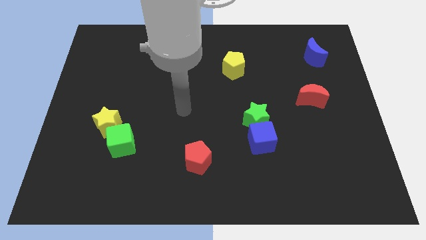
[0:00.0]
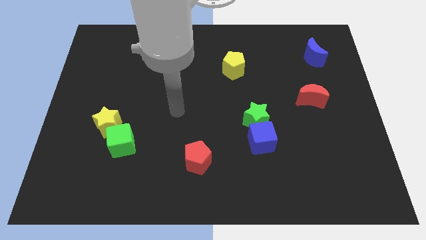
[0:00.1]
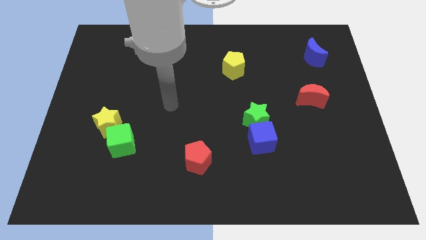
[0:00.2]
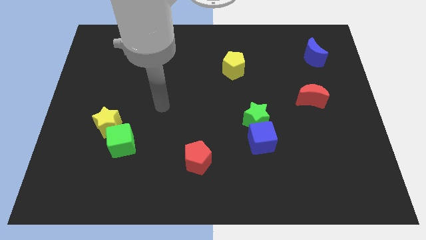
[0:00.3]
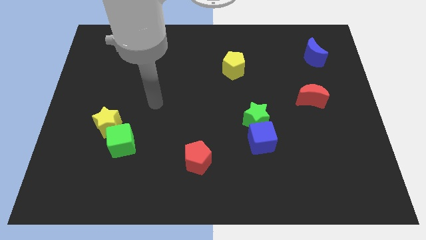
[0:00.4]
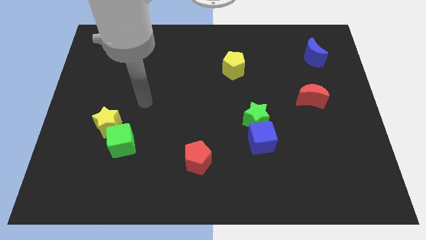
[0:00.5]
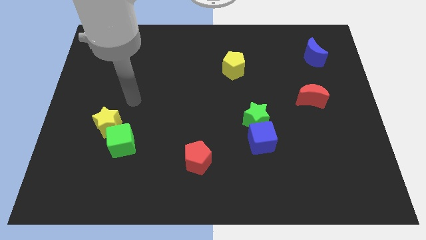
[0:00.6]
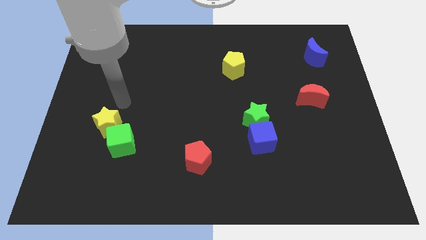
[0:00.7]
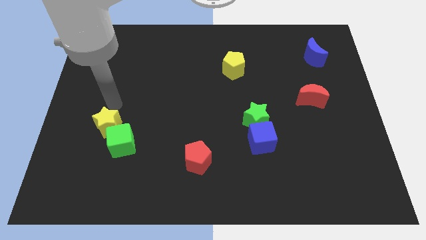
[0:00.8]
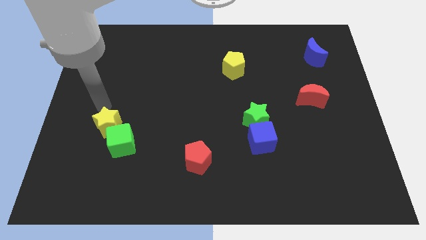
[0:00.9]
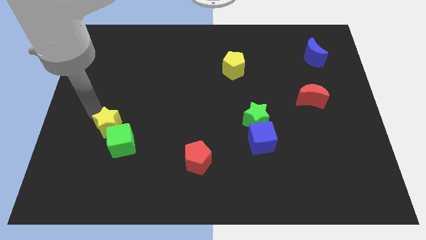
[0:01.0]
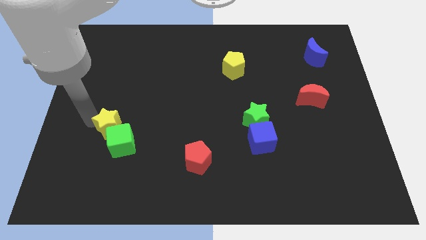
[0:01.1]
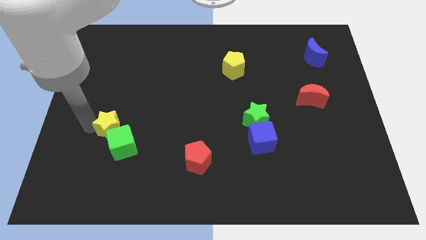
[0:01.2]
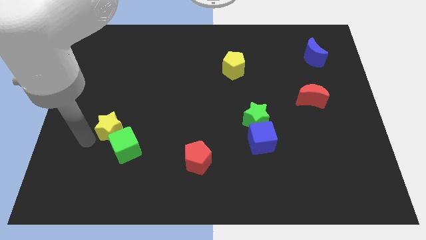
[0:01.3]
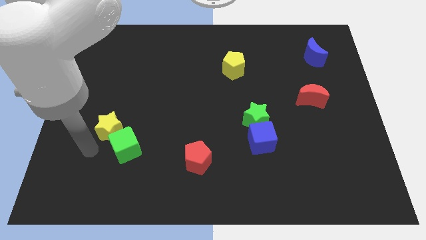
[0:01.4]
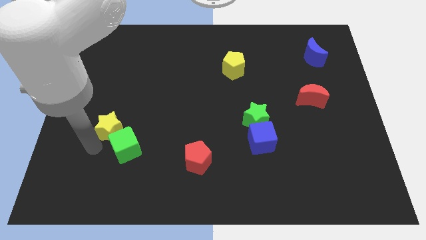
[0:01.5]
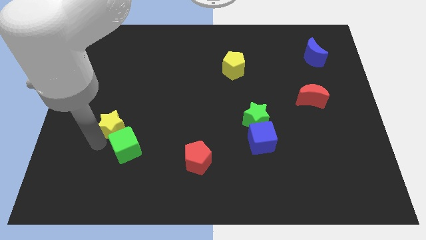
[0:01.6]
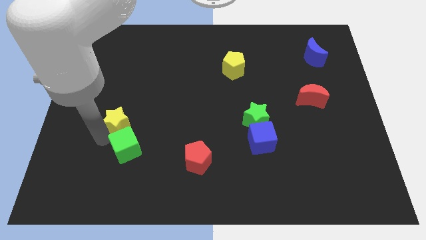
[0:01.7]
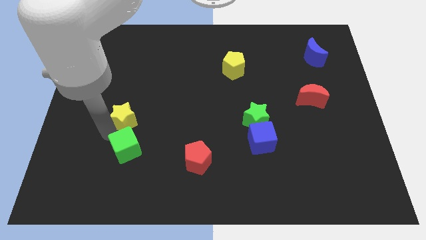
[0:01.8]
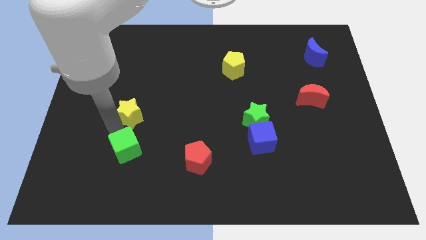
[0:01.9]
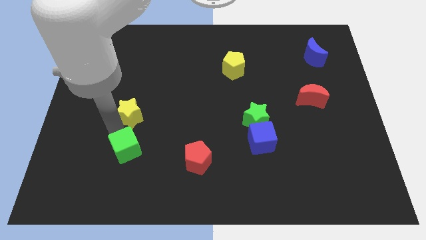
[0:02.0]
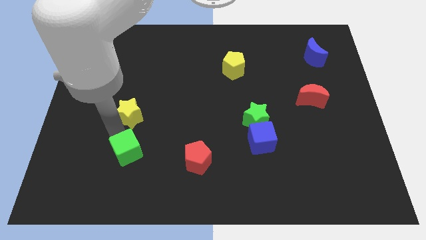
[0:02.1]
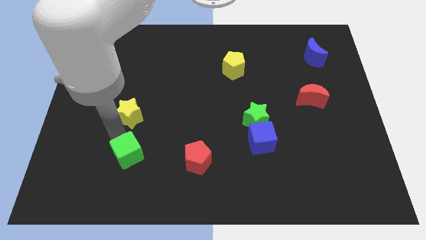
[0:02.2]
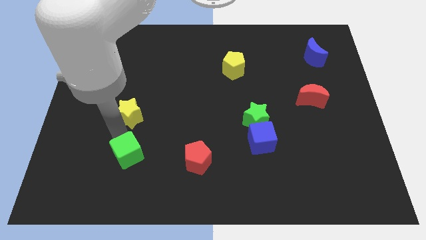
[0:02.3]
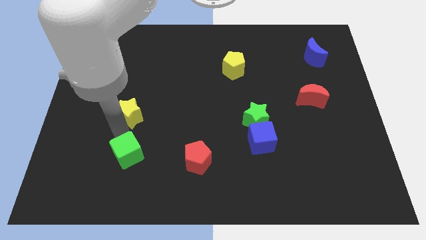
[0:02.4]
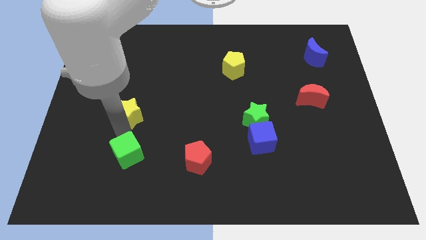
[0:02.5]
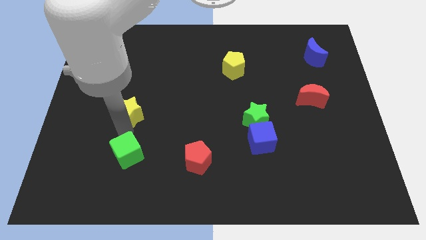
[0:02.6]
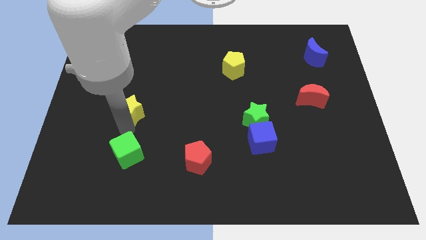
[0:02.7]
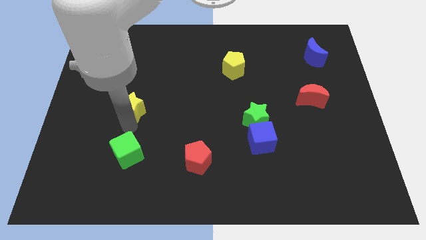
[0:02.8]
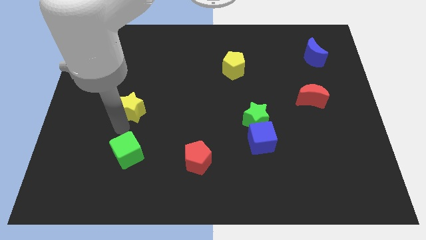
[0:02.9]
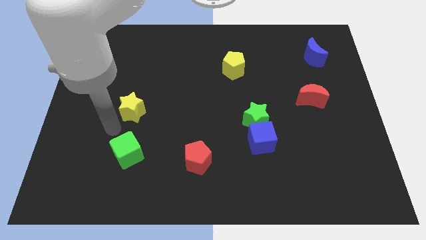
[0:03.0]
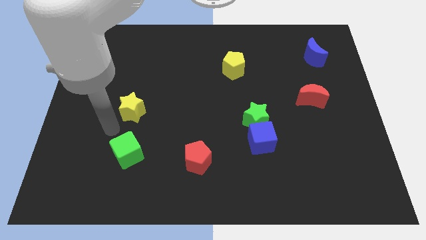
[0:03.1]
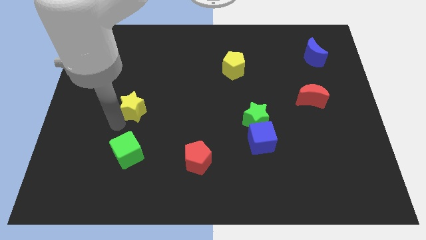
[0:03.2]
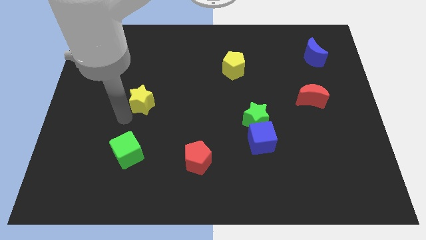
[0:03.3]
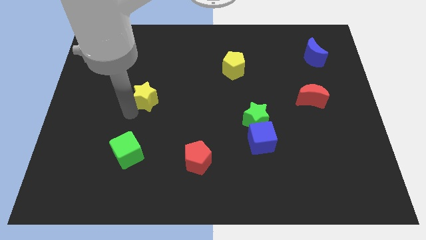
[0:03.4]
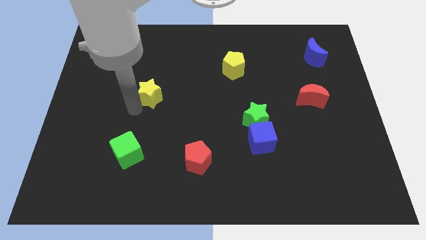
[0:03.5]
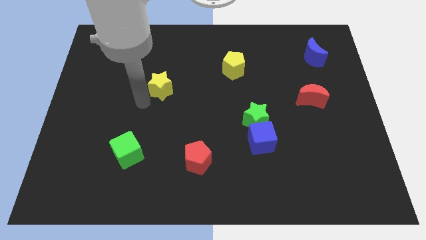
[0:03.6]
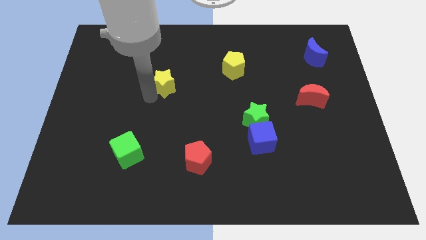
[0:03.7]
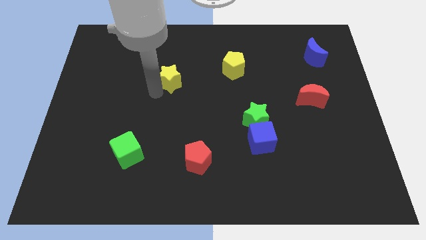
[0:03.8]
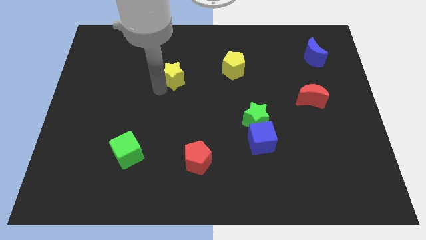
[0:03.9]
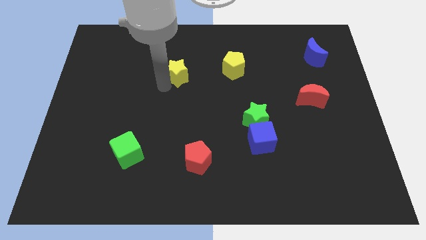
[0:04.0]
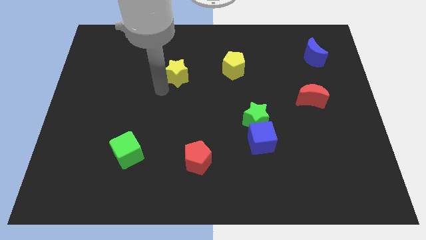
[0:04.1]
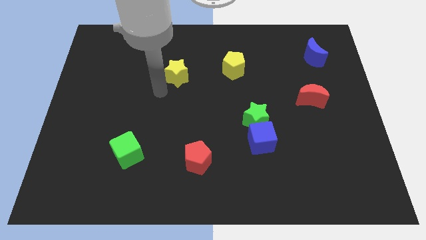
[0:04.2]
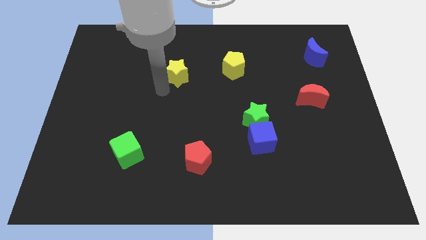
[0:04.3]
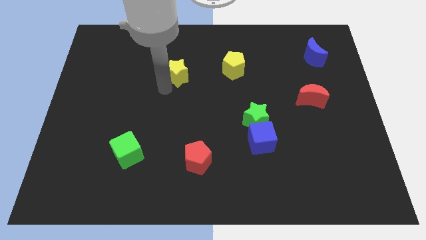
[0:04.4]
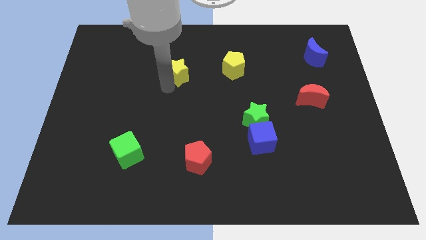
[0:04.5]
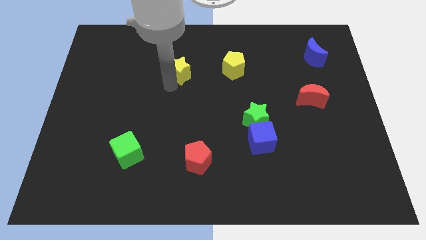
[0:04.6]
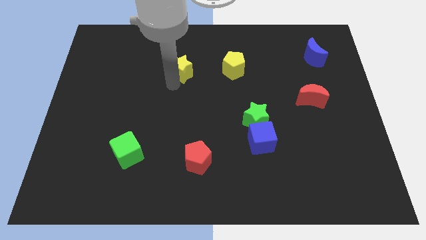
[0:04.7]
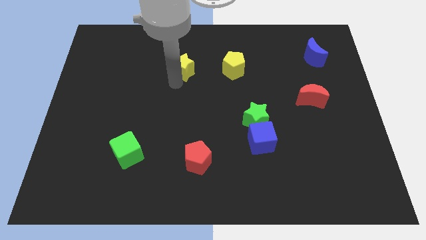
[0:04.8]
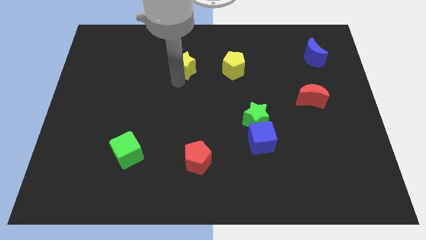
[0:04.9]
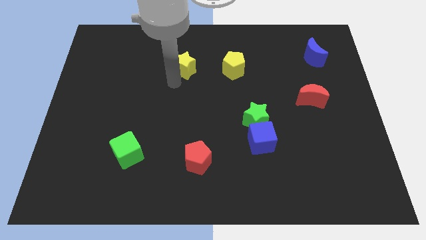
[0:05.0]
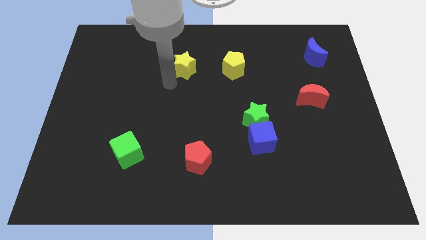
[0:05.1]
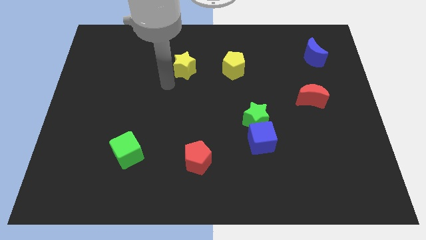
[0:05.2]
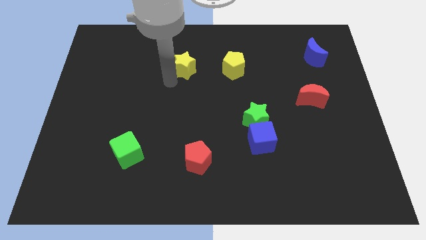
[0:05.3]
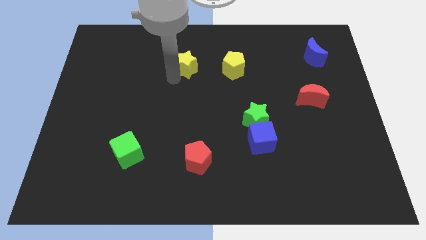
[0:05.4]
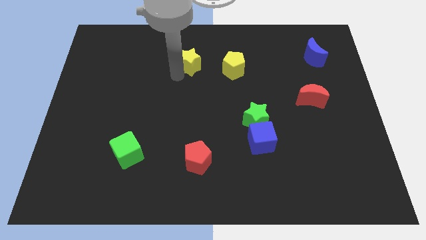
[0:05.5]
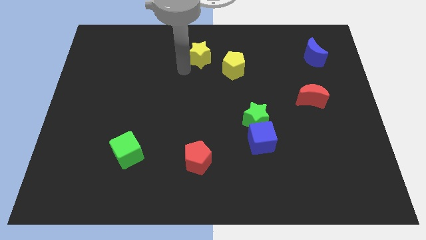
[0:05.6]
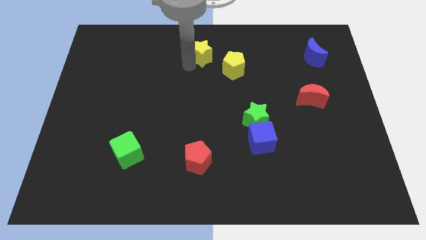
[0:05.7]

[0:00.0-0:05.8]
move the yellow star to the top

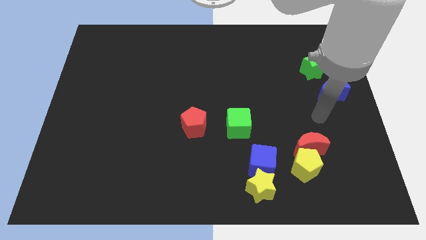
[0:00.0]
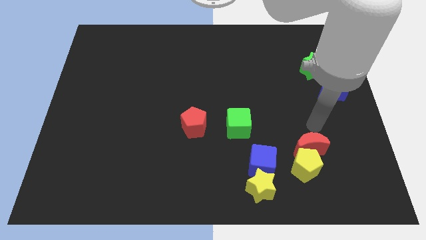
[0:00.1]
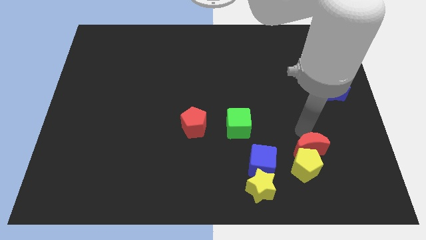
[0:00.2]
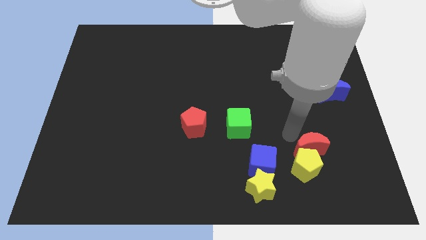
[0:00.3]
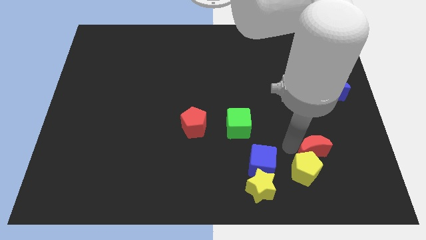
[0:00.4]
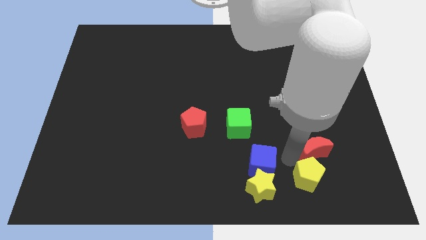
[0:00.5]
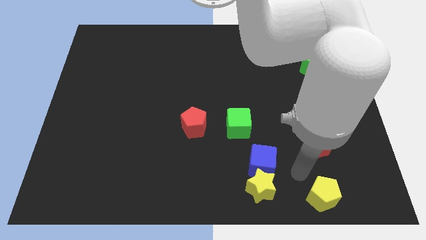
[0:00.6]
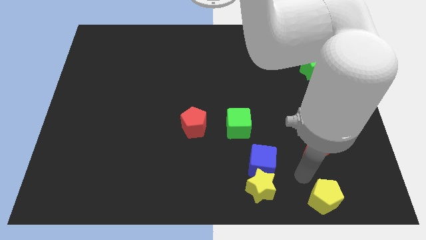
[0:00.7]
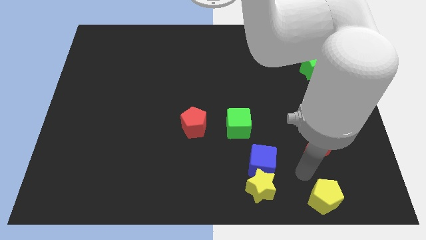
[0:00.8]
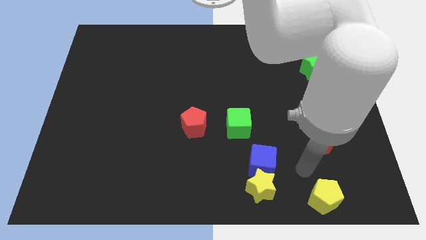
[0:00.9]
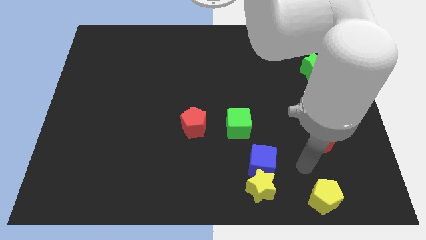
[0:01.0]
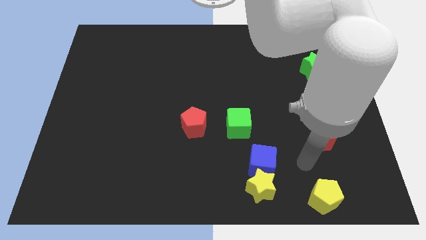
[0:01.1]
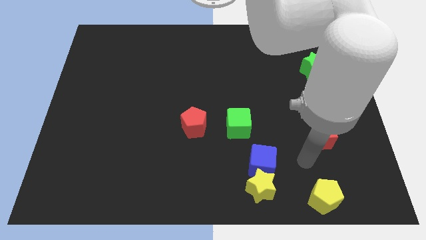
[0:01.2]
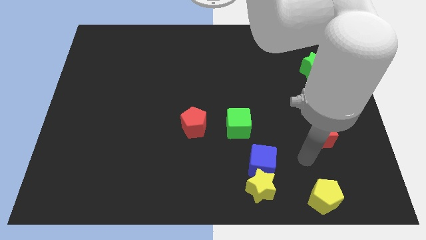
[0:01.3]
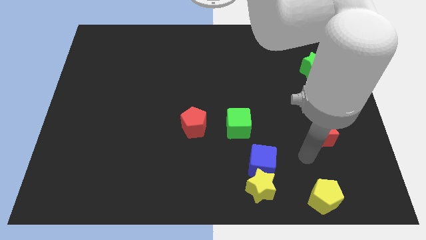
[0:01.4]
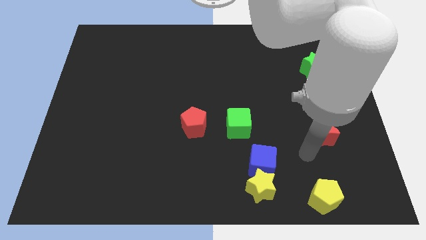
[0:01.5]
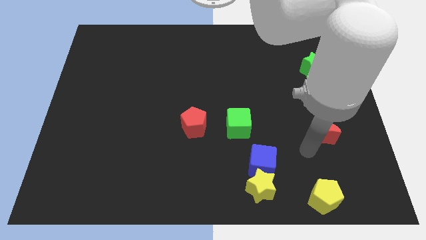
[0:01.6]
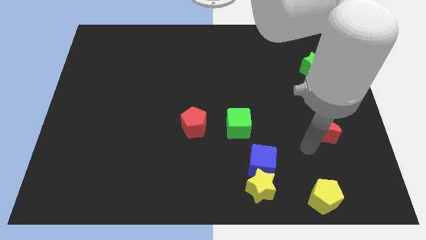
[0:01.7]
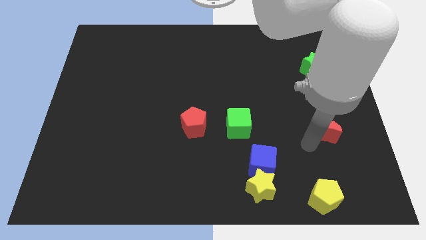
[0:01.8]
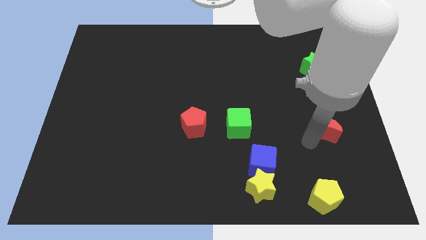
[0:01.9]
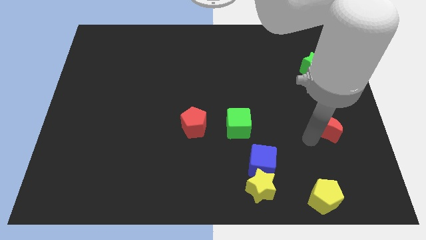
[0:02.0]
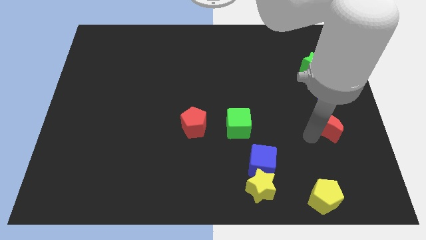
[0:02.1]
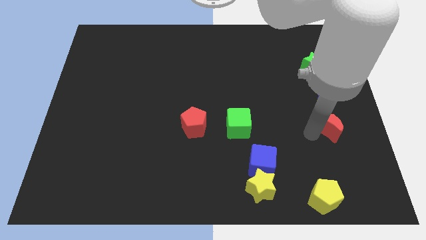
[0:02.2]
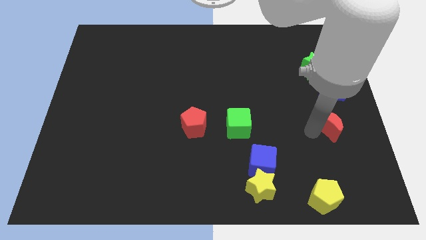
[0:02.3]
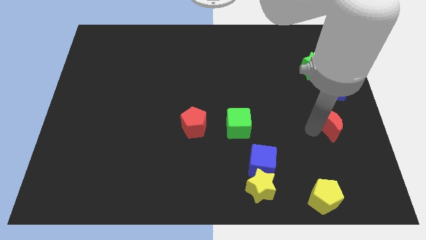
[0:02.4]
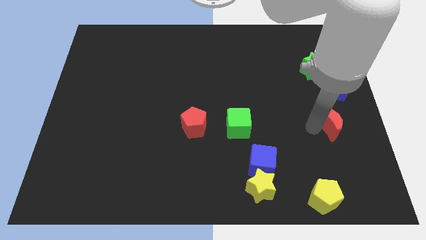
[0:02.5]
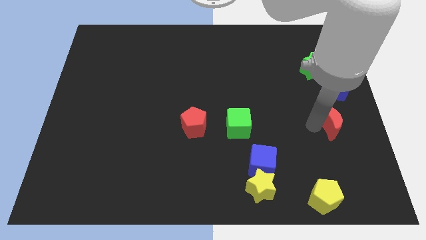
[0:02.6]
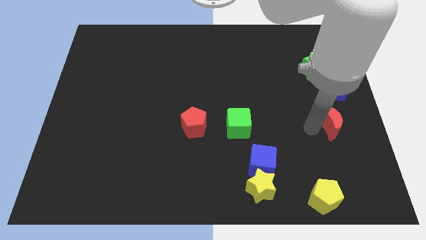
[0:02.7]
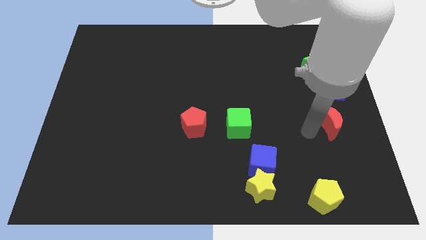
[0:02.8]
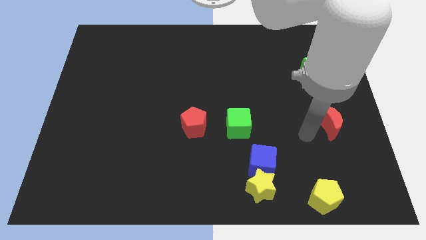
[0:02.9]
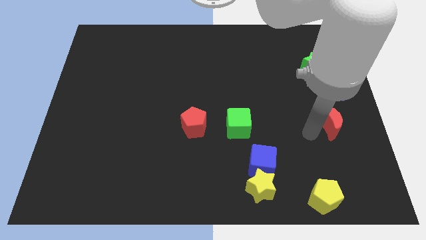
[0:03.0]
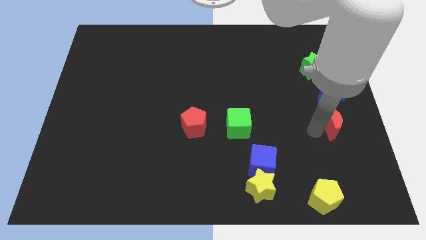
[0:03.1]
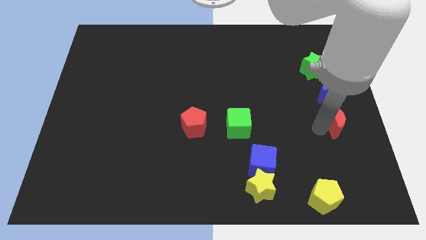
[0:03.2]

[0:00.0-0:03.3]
put the red moon to the center right
